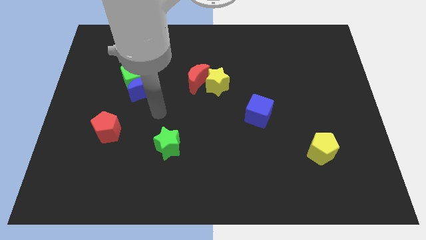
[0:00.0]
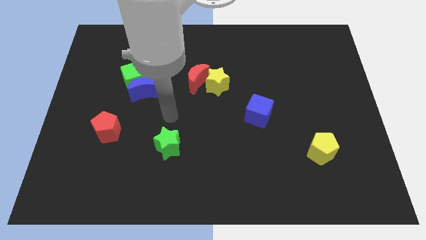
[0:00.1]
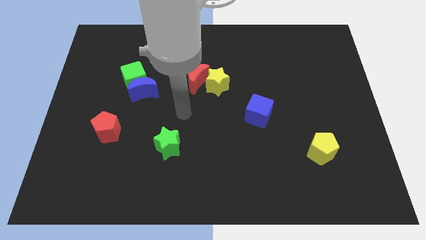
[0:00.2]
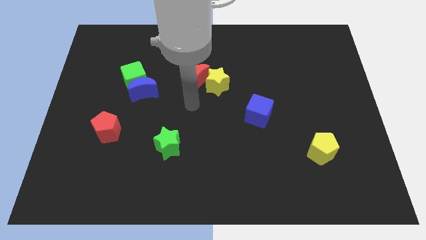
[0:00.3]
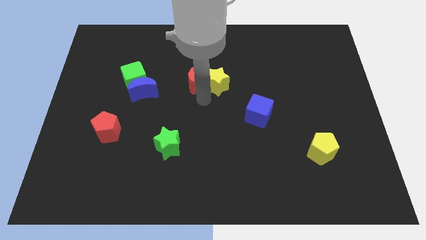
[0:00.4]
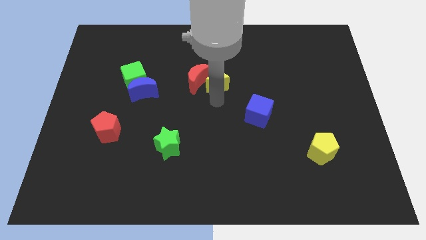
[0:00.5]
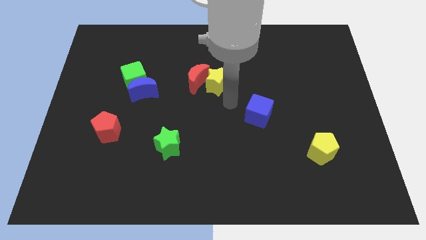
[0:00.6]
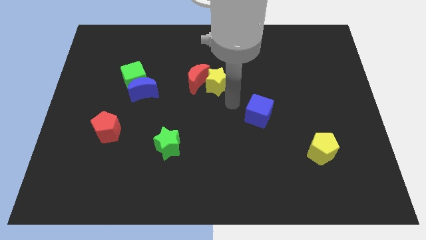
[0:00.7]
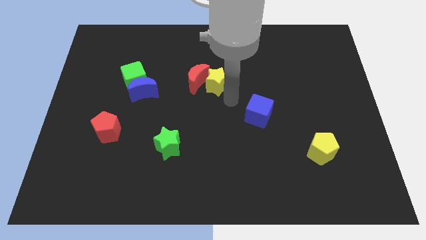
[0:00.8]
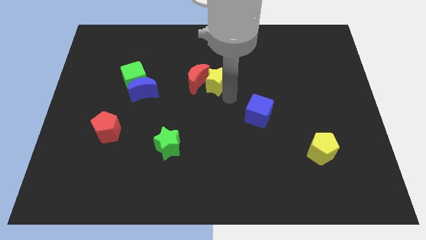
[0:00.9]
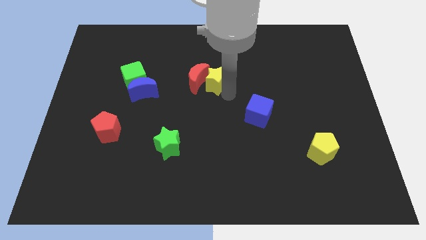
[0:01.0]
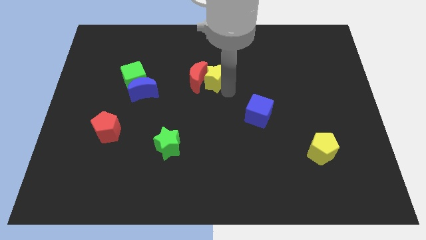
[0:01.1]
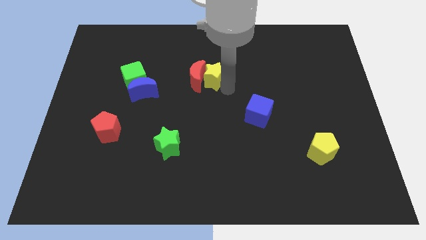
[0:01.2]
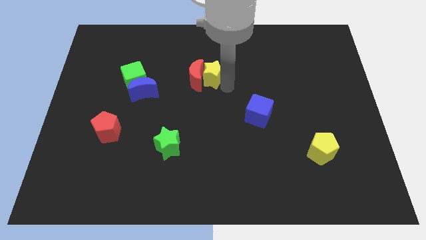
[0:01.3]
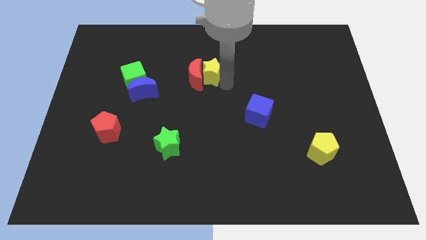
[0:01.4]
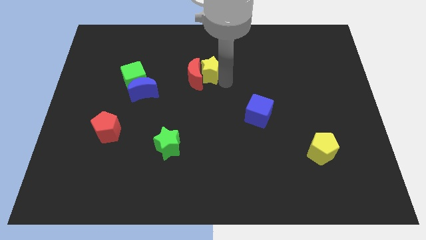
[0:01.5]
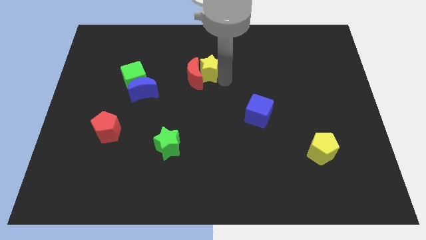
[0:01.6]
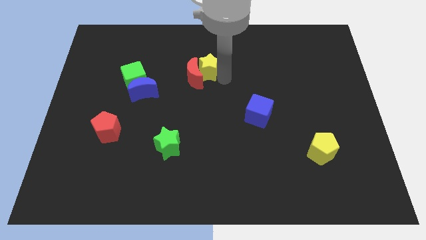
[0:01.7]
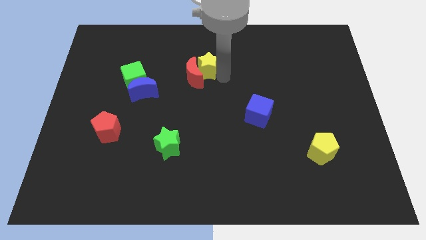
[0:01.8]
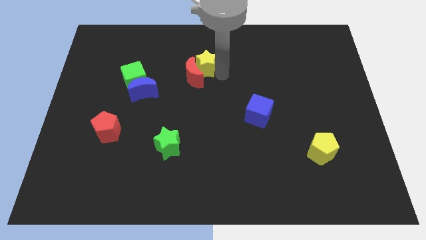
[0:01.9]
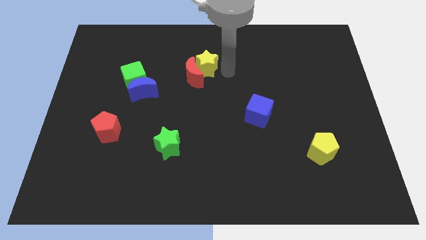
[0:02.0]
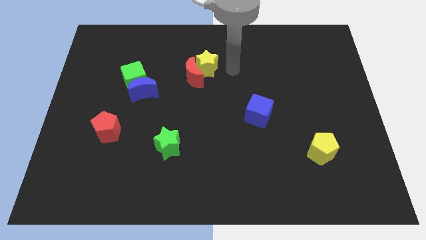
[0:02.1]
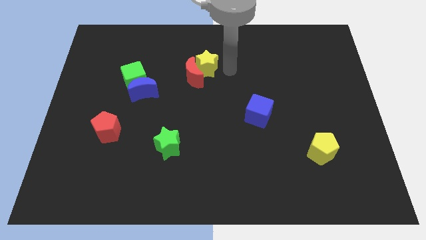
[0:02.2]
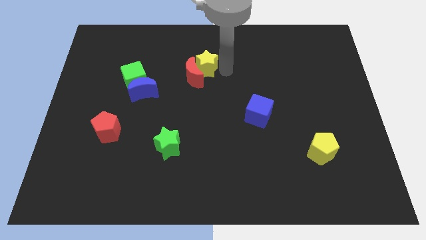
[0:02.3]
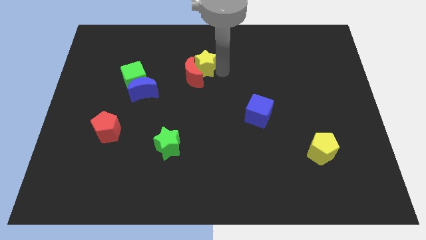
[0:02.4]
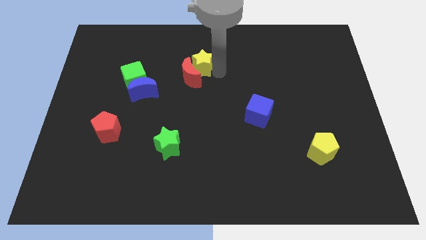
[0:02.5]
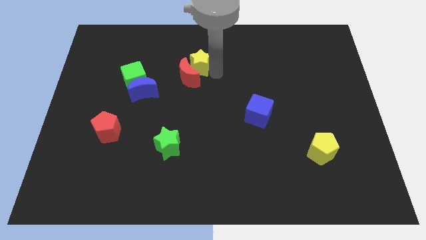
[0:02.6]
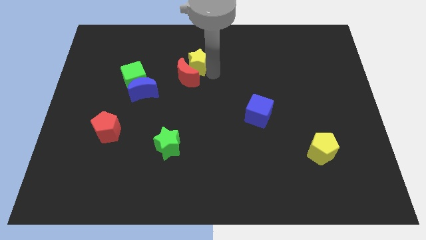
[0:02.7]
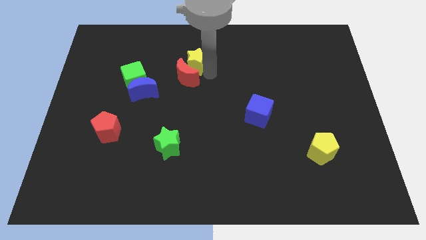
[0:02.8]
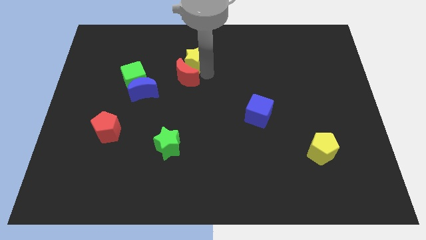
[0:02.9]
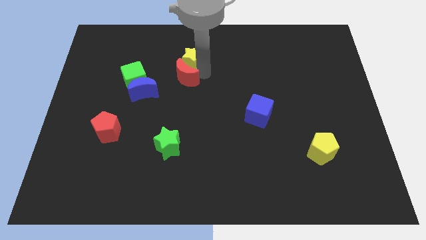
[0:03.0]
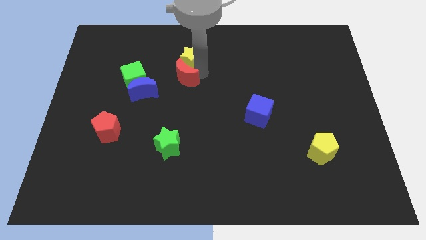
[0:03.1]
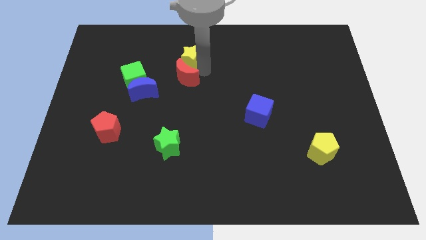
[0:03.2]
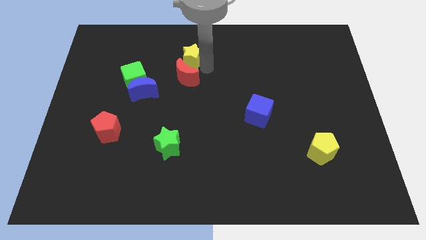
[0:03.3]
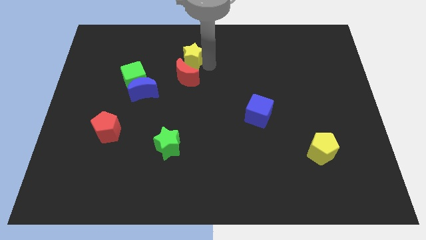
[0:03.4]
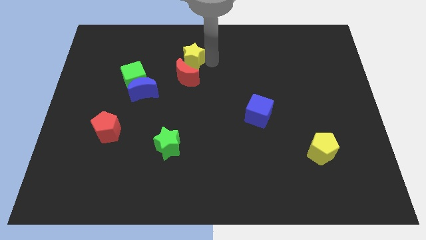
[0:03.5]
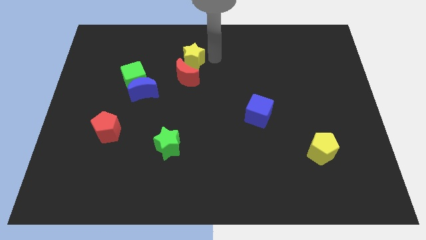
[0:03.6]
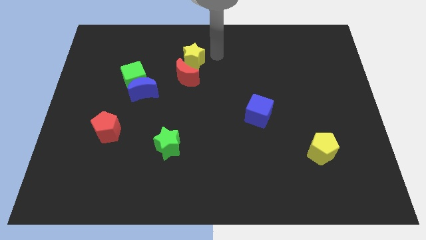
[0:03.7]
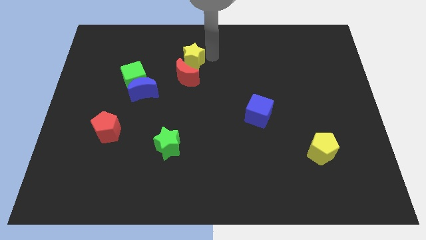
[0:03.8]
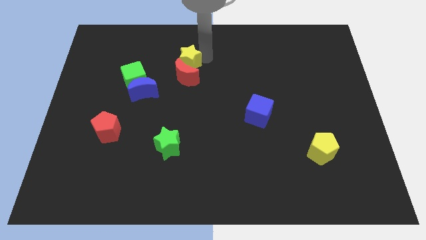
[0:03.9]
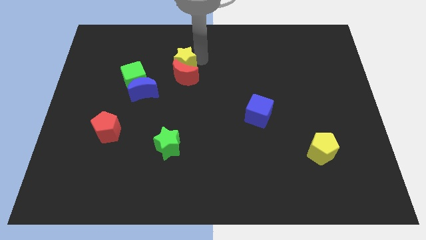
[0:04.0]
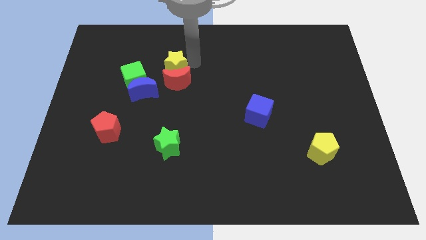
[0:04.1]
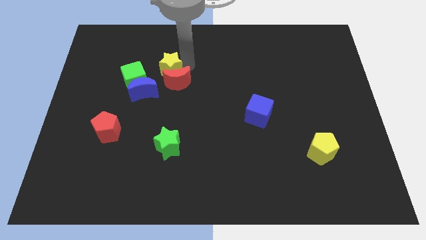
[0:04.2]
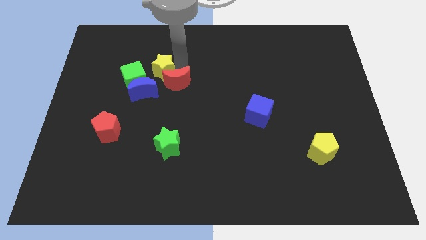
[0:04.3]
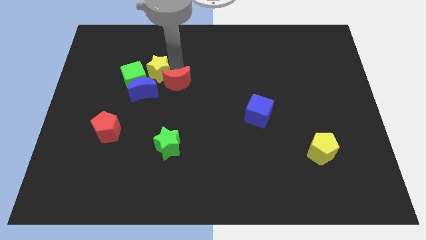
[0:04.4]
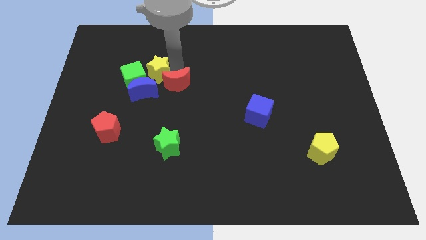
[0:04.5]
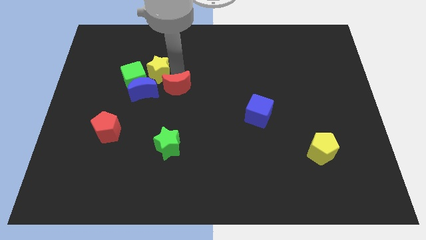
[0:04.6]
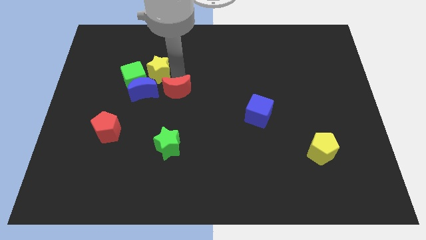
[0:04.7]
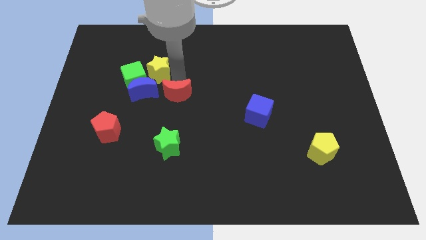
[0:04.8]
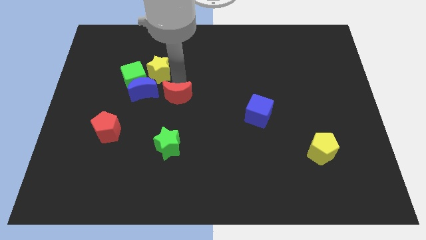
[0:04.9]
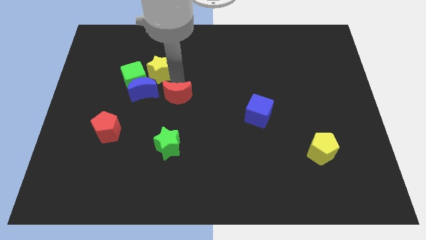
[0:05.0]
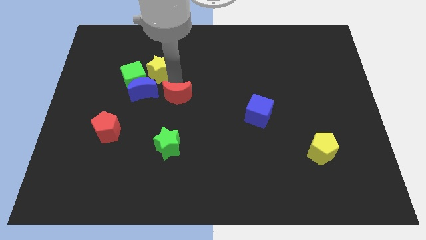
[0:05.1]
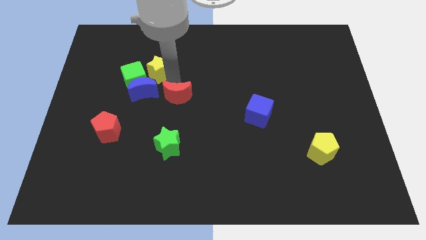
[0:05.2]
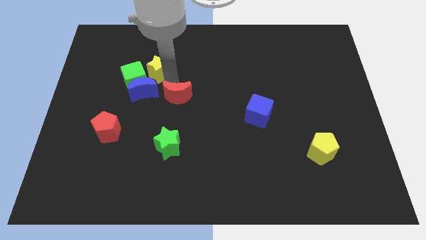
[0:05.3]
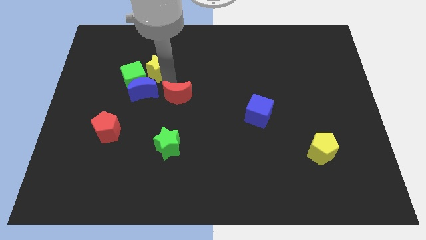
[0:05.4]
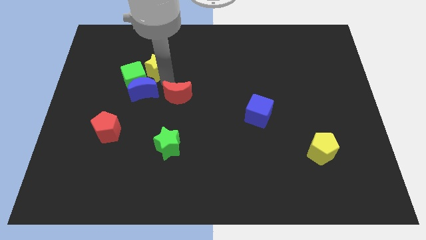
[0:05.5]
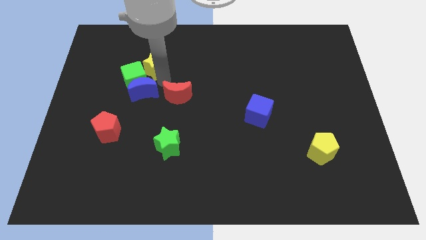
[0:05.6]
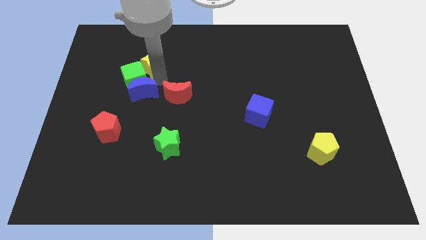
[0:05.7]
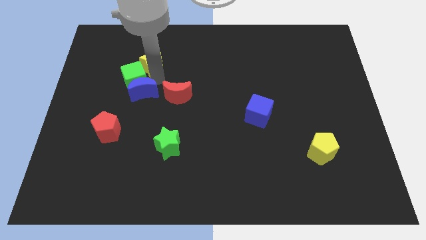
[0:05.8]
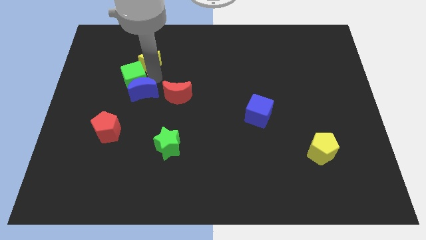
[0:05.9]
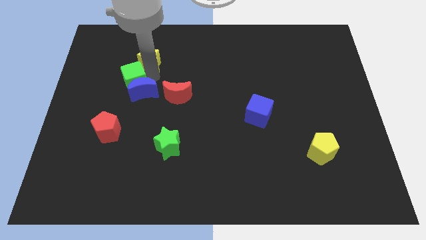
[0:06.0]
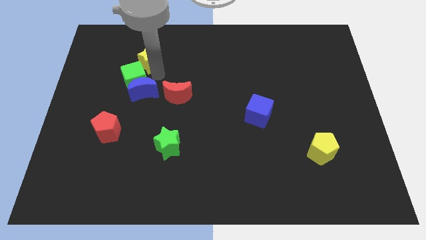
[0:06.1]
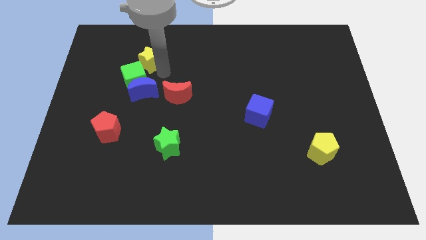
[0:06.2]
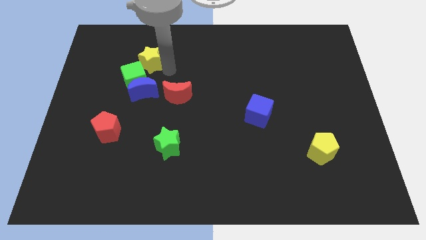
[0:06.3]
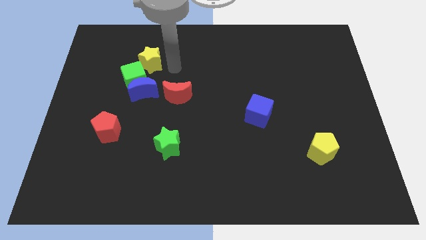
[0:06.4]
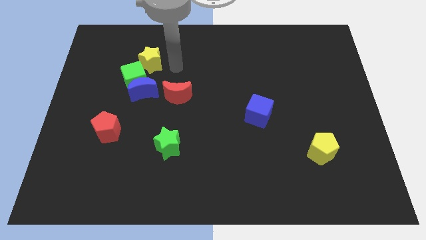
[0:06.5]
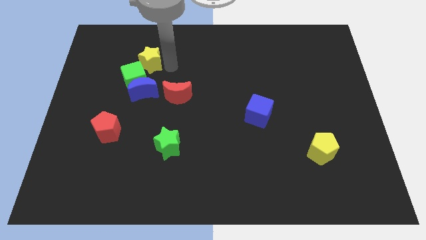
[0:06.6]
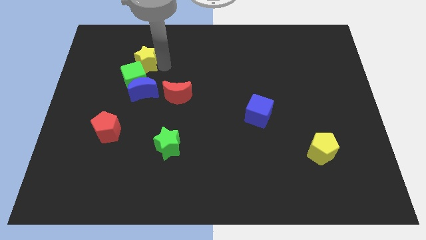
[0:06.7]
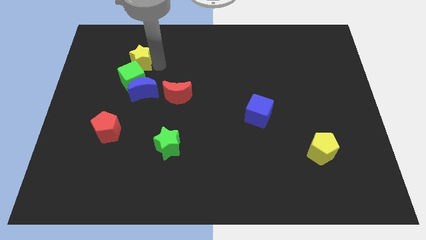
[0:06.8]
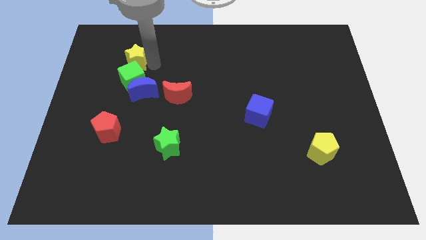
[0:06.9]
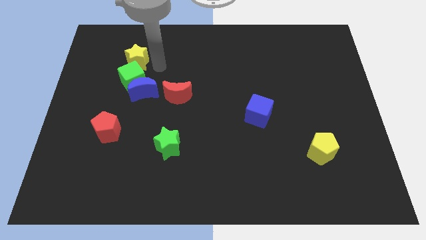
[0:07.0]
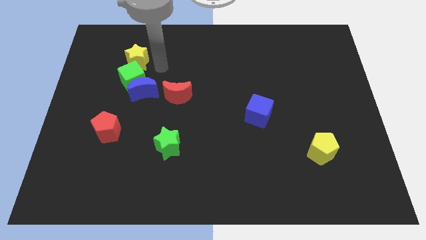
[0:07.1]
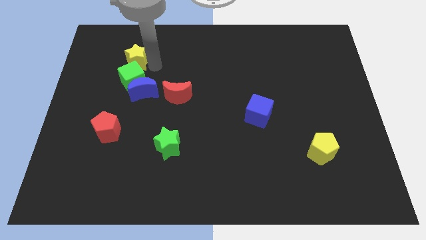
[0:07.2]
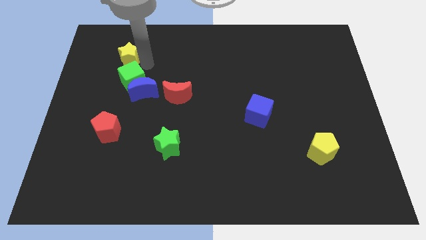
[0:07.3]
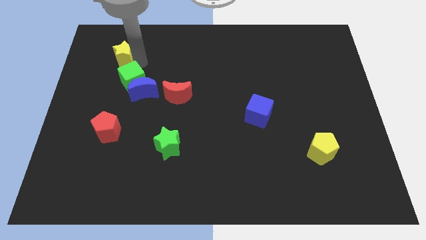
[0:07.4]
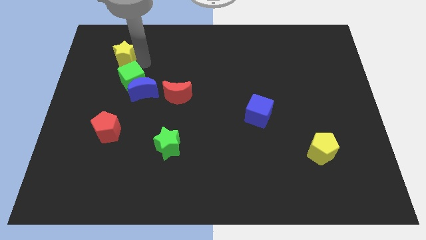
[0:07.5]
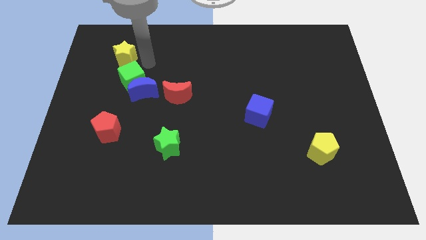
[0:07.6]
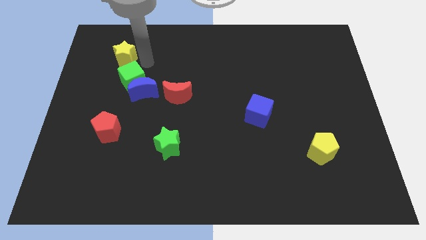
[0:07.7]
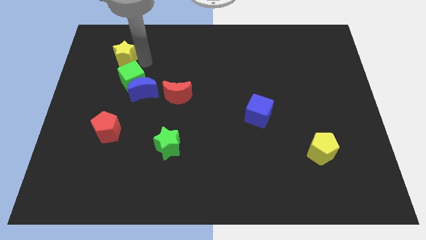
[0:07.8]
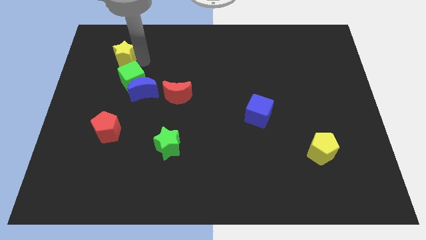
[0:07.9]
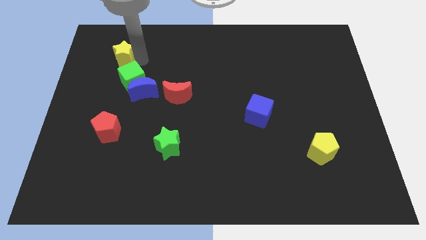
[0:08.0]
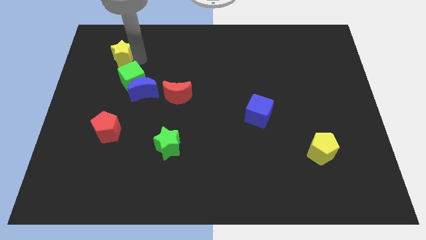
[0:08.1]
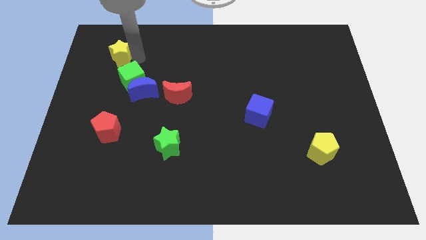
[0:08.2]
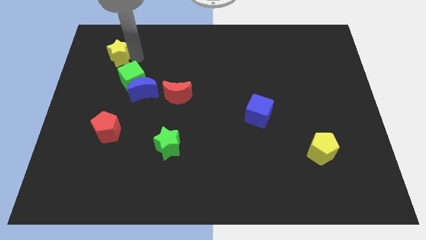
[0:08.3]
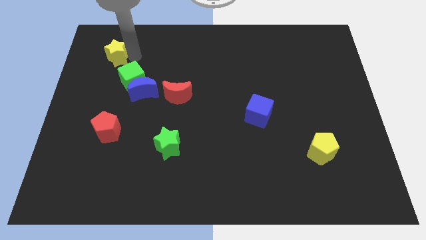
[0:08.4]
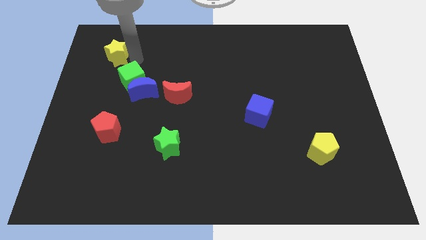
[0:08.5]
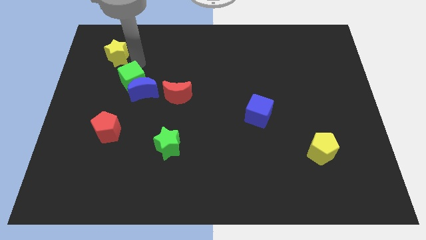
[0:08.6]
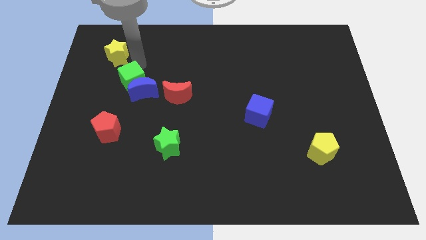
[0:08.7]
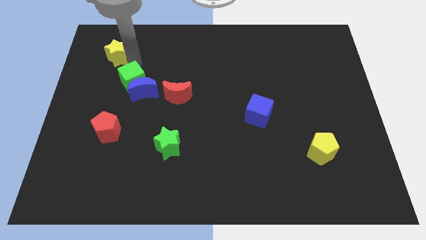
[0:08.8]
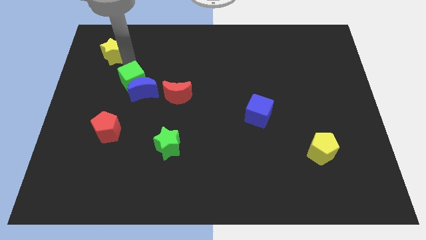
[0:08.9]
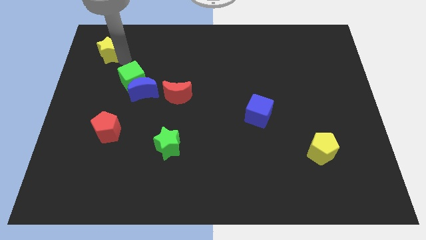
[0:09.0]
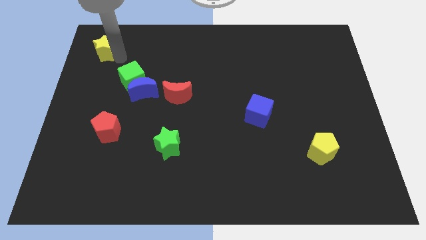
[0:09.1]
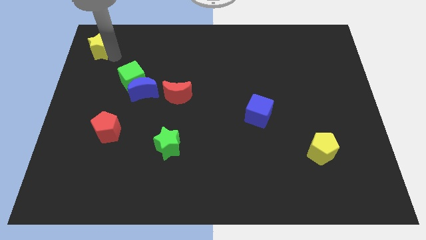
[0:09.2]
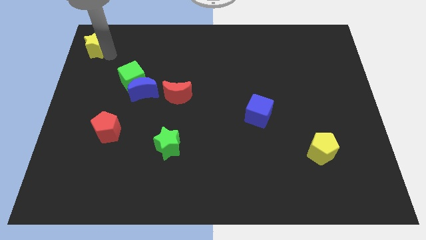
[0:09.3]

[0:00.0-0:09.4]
push the yellow star to the top left
